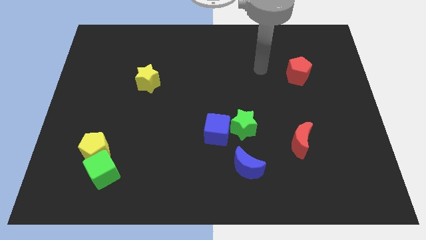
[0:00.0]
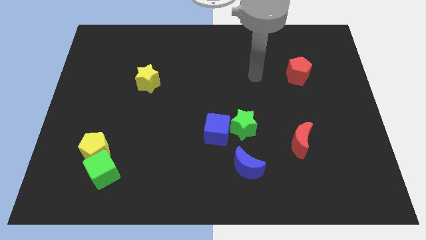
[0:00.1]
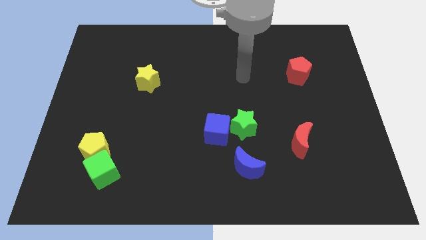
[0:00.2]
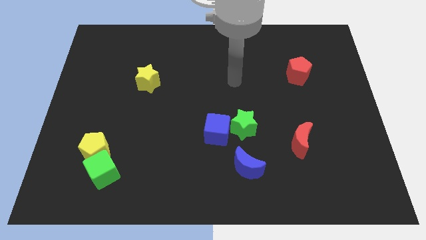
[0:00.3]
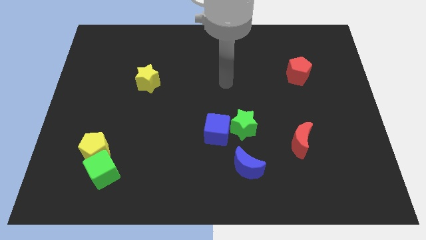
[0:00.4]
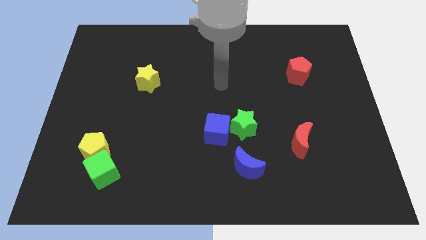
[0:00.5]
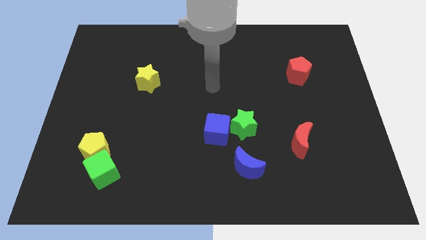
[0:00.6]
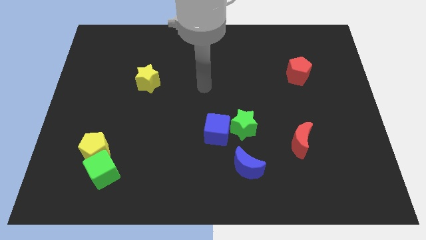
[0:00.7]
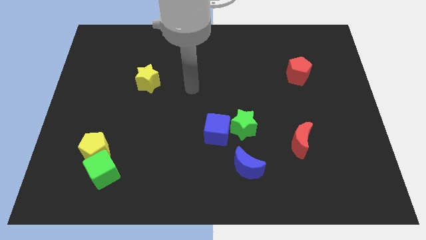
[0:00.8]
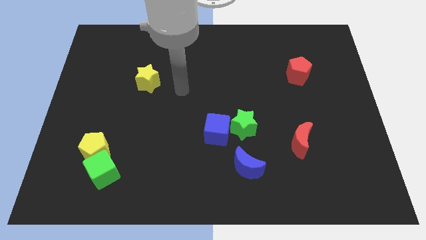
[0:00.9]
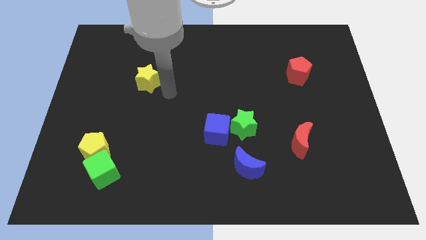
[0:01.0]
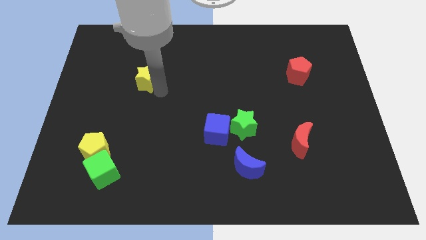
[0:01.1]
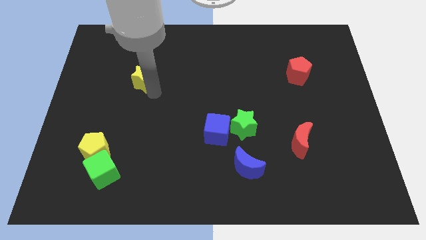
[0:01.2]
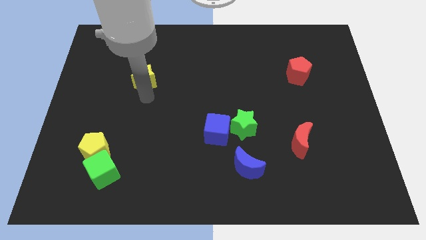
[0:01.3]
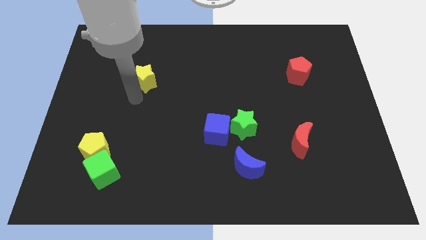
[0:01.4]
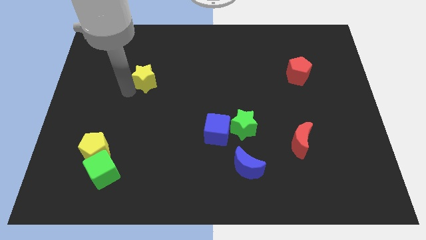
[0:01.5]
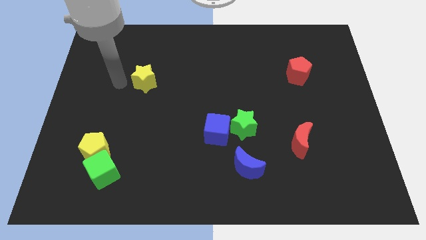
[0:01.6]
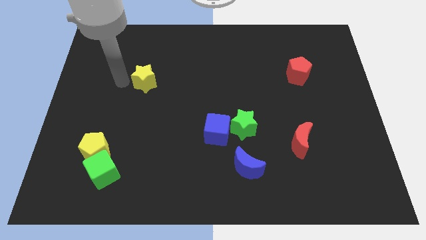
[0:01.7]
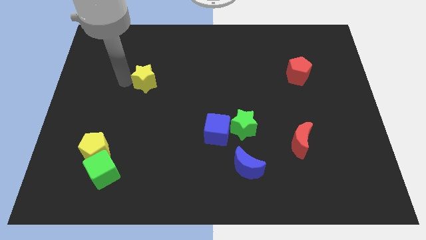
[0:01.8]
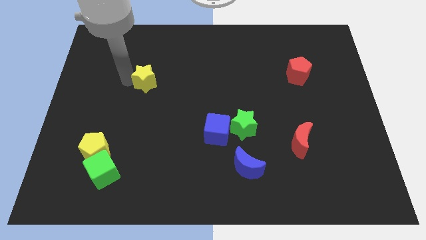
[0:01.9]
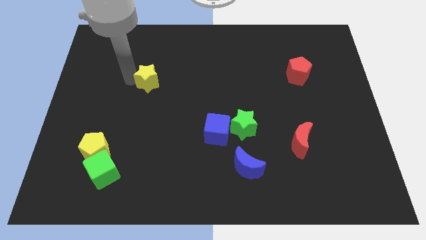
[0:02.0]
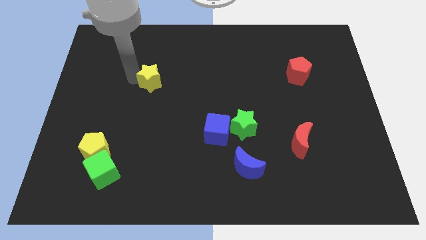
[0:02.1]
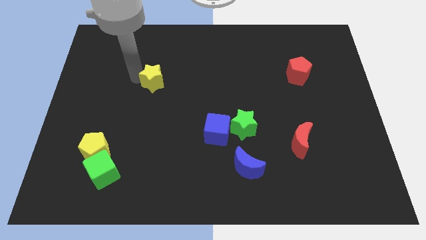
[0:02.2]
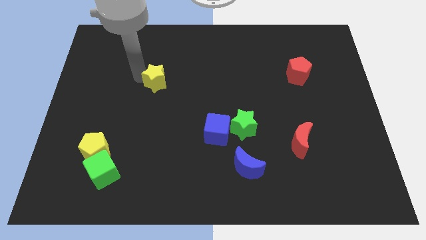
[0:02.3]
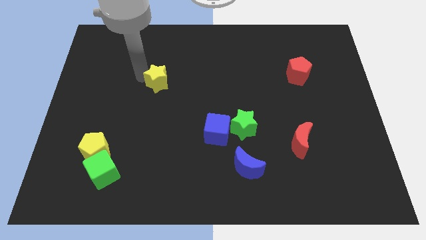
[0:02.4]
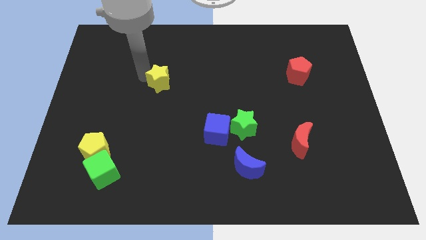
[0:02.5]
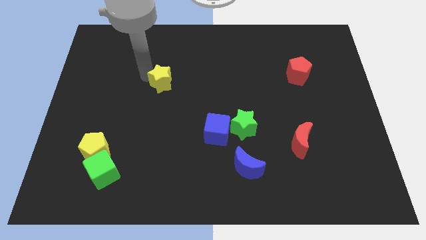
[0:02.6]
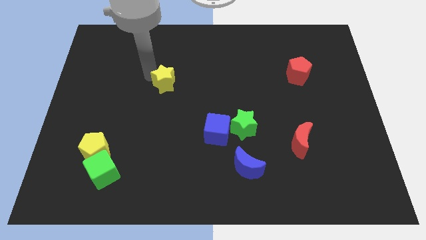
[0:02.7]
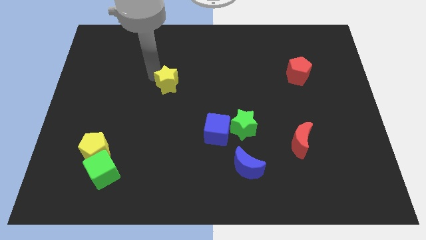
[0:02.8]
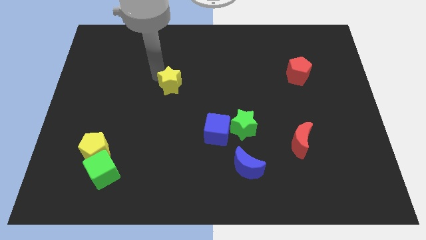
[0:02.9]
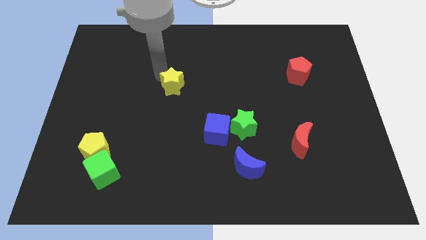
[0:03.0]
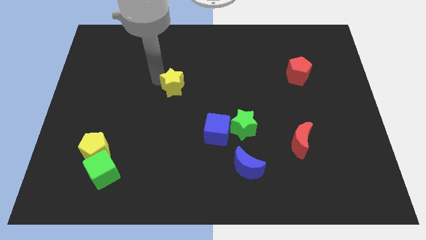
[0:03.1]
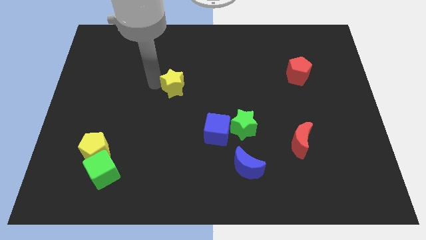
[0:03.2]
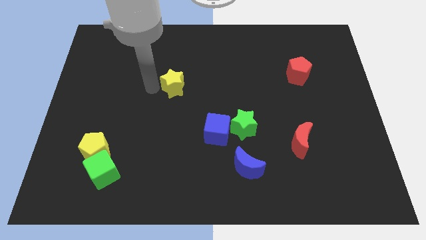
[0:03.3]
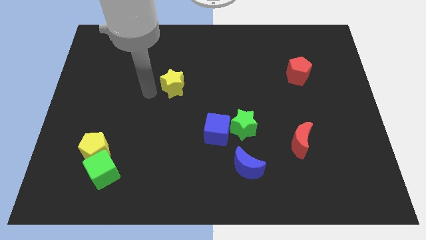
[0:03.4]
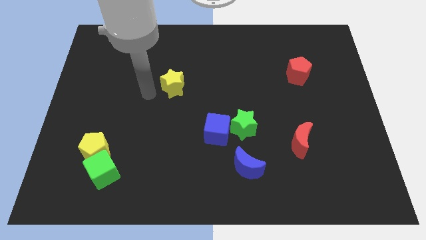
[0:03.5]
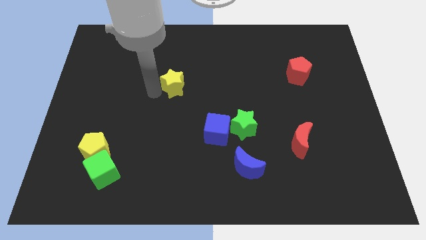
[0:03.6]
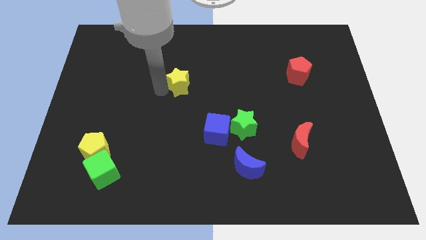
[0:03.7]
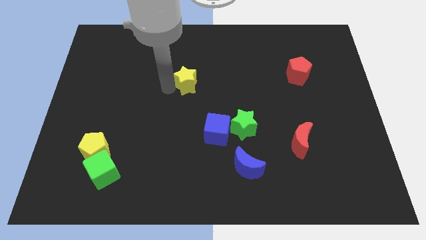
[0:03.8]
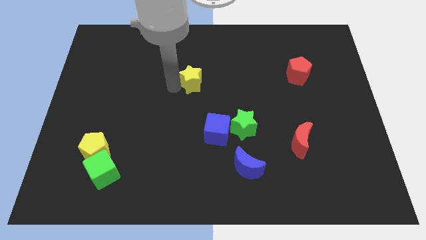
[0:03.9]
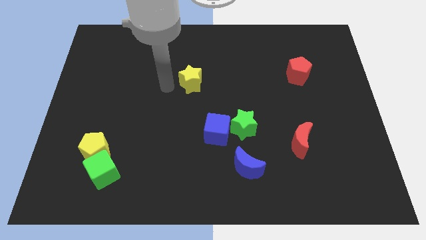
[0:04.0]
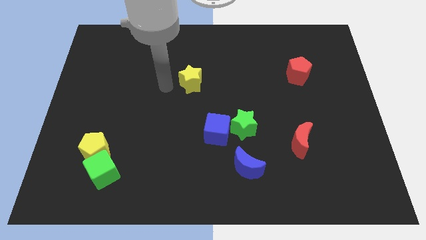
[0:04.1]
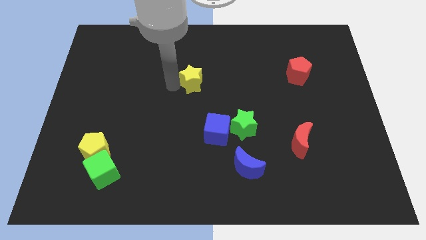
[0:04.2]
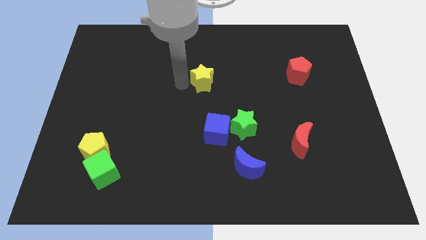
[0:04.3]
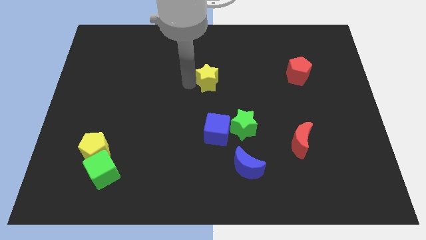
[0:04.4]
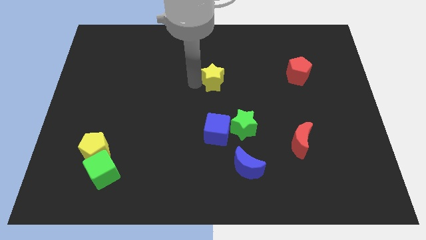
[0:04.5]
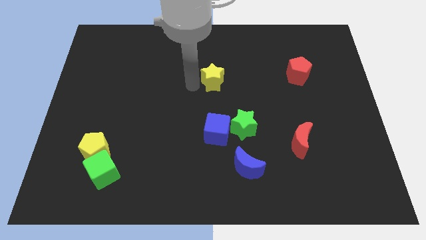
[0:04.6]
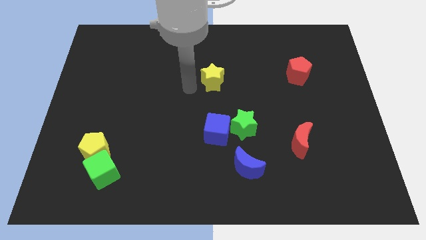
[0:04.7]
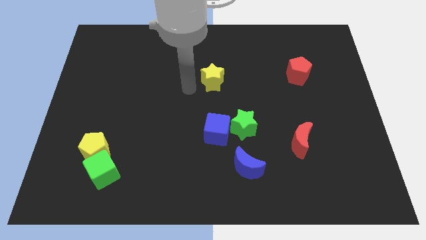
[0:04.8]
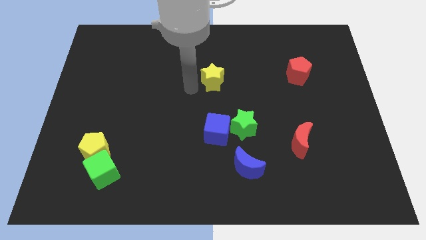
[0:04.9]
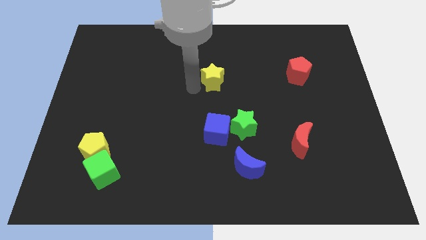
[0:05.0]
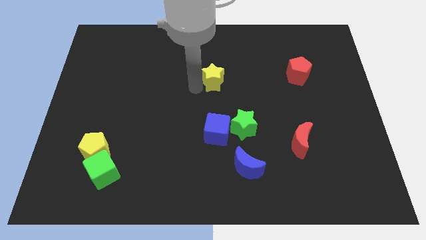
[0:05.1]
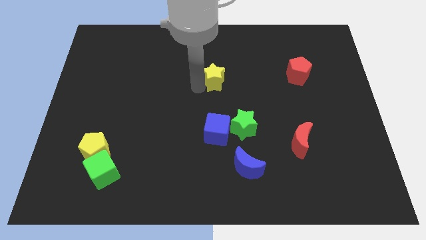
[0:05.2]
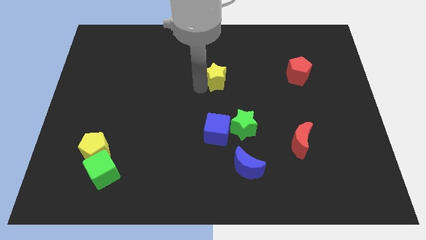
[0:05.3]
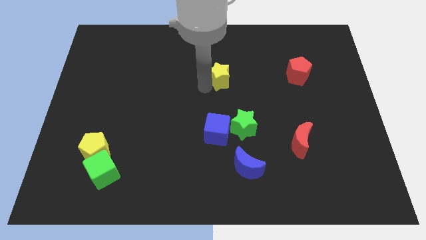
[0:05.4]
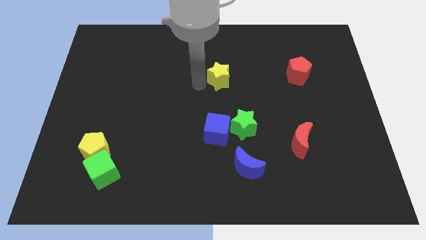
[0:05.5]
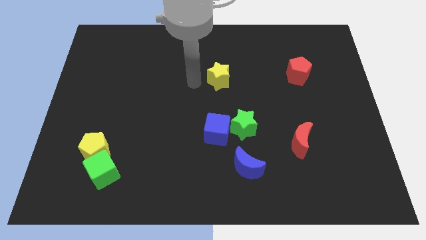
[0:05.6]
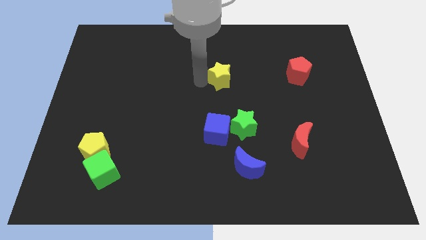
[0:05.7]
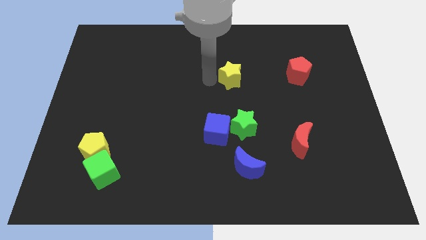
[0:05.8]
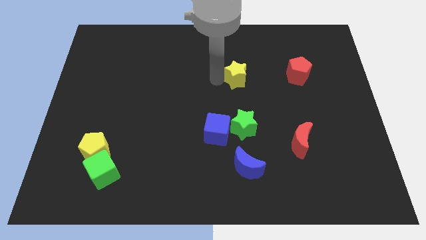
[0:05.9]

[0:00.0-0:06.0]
slide the yellow star to the left of the red pentagon

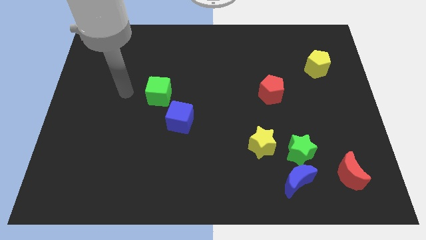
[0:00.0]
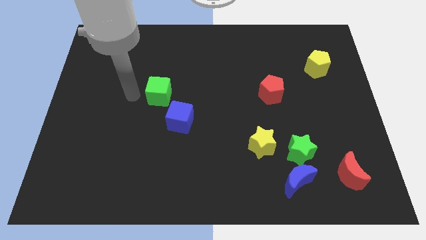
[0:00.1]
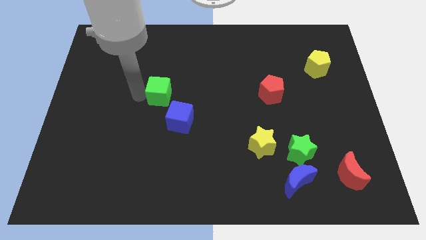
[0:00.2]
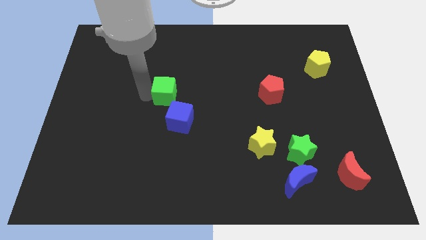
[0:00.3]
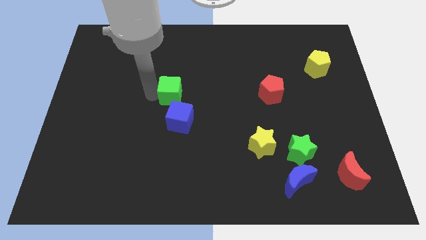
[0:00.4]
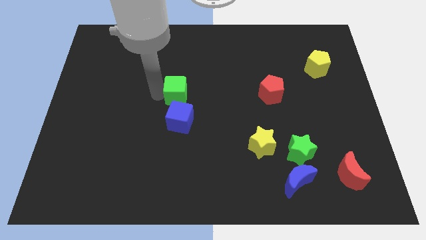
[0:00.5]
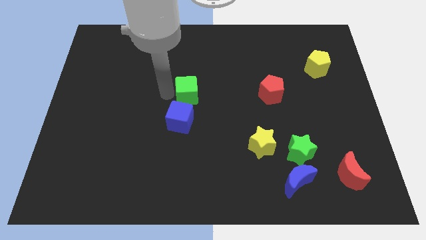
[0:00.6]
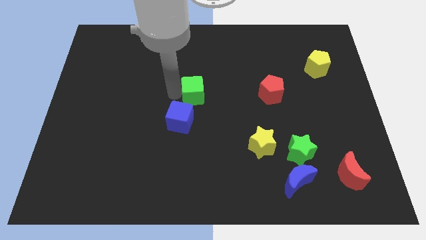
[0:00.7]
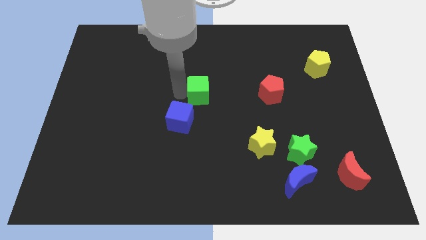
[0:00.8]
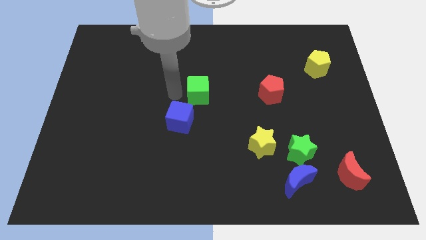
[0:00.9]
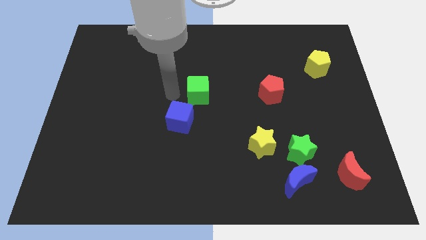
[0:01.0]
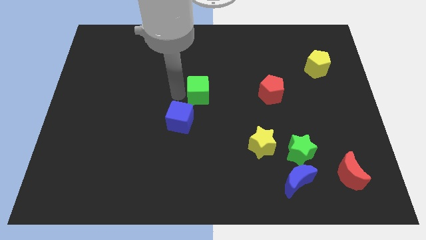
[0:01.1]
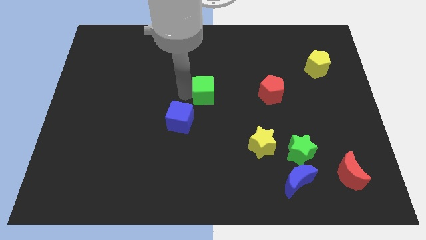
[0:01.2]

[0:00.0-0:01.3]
push the green cube to the left side of the red pentagon

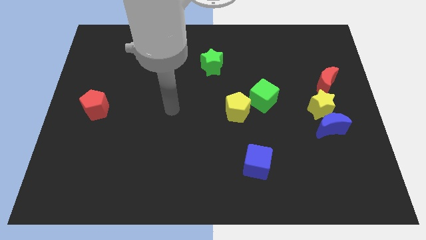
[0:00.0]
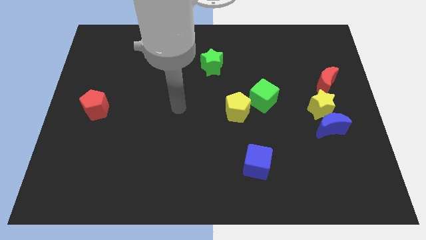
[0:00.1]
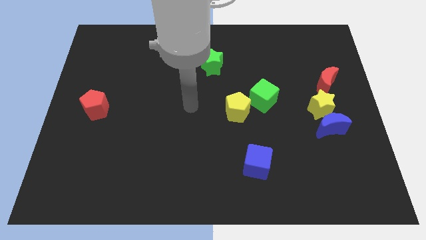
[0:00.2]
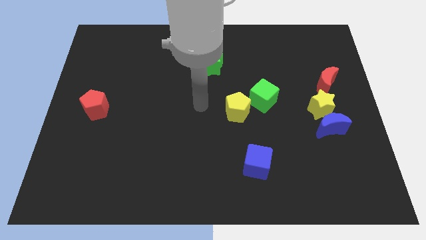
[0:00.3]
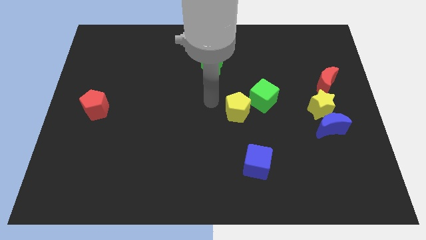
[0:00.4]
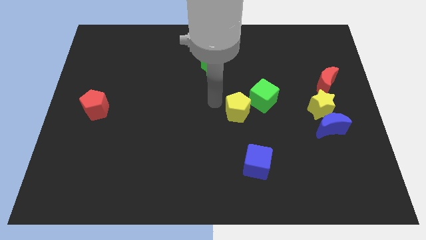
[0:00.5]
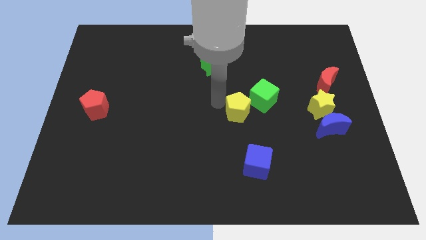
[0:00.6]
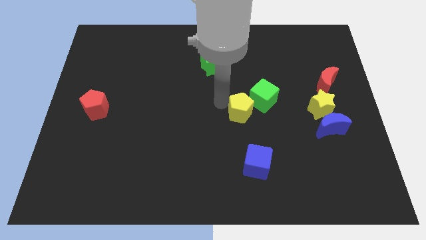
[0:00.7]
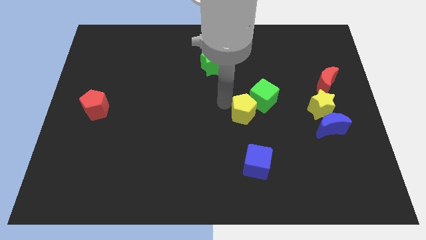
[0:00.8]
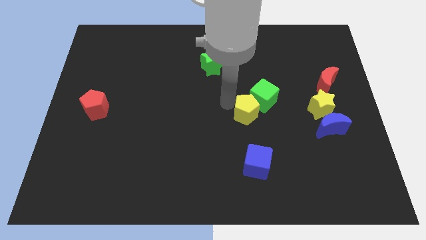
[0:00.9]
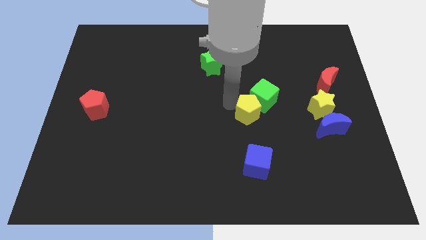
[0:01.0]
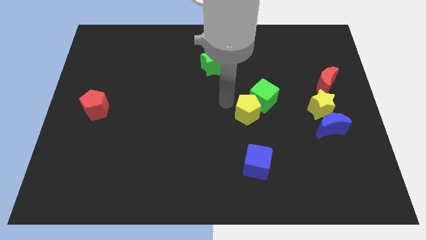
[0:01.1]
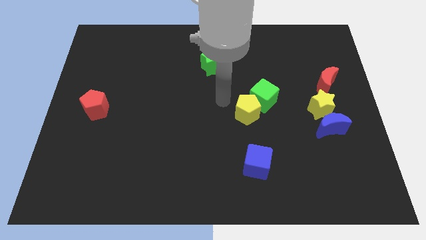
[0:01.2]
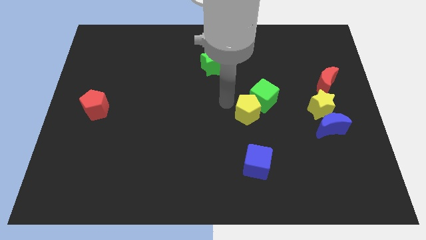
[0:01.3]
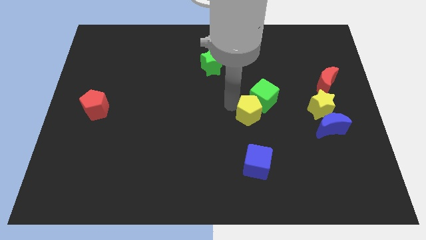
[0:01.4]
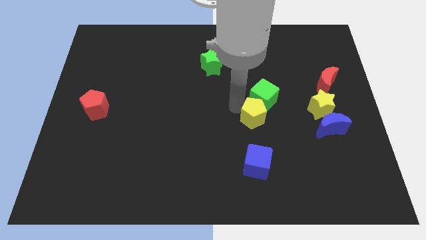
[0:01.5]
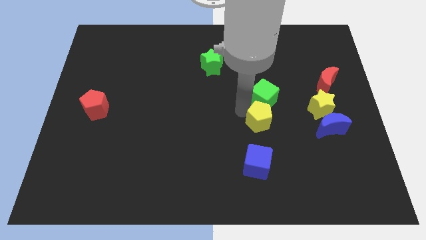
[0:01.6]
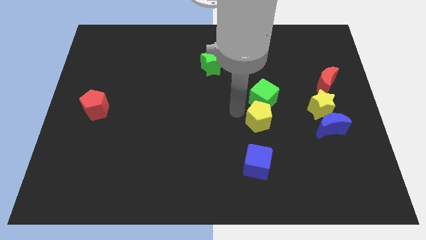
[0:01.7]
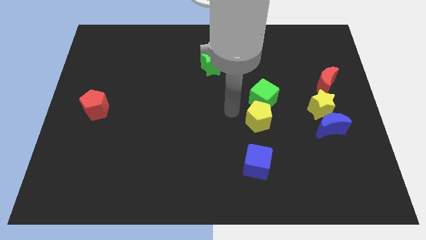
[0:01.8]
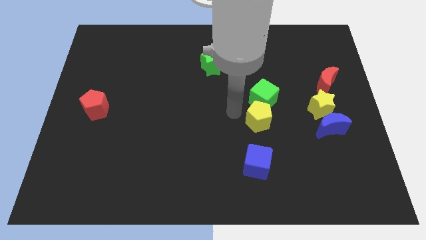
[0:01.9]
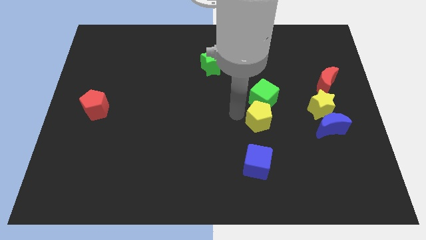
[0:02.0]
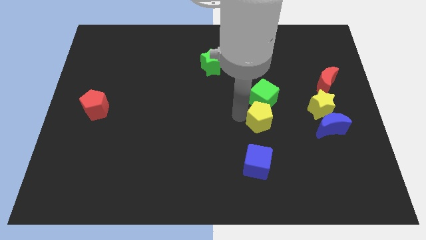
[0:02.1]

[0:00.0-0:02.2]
put the yellow pentagon to the left side of the blue moon
